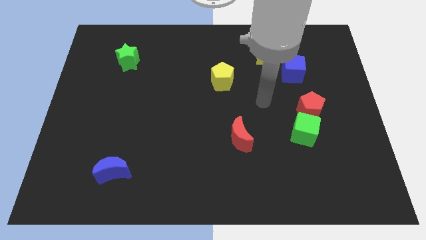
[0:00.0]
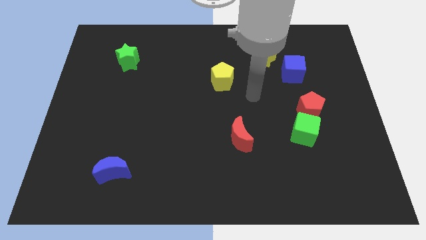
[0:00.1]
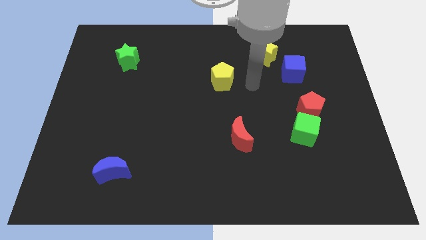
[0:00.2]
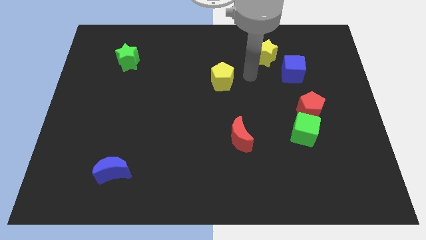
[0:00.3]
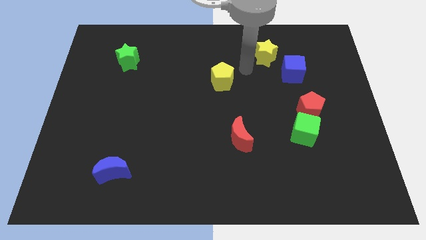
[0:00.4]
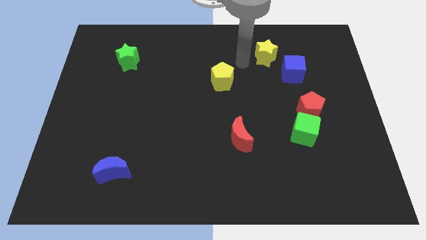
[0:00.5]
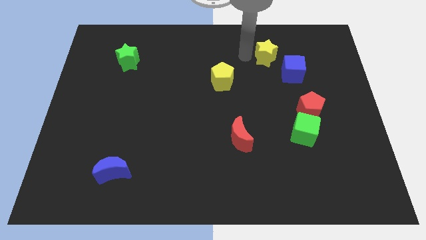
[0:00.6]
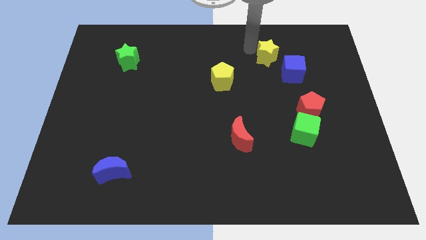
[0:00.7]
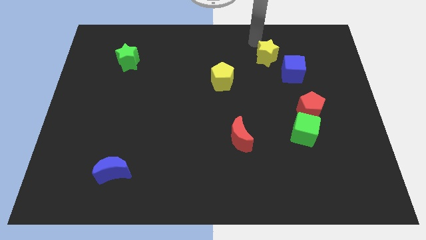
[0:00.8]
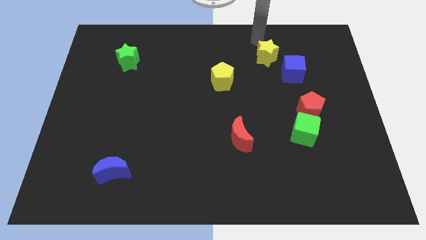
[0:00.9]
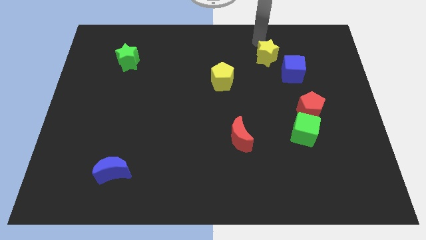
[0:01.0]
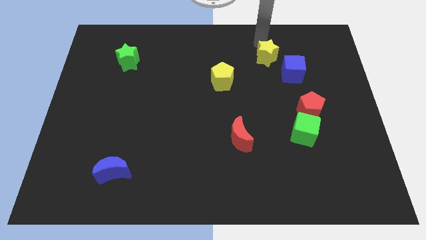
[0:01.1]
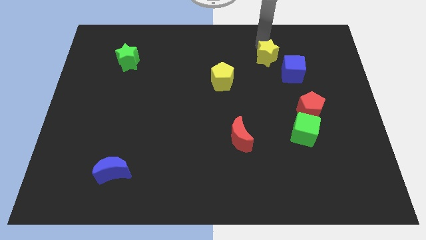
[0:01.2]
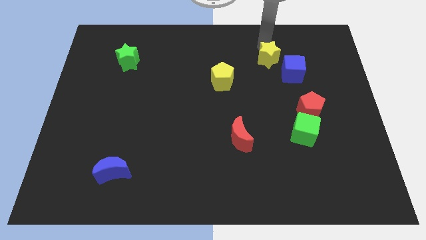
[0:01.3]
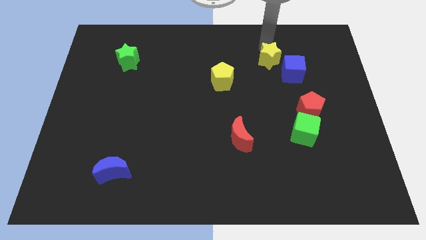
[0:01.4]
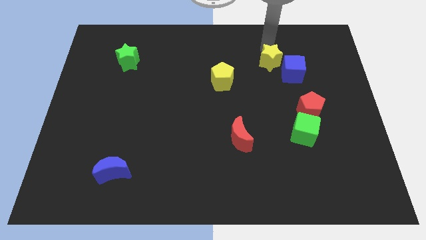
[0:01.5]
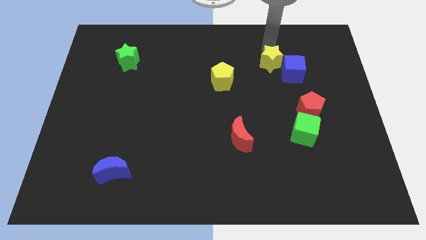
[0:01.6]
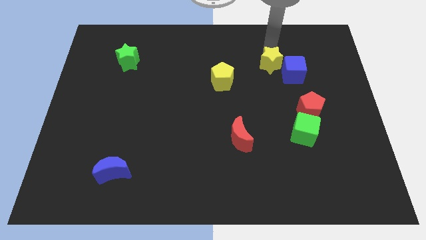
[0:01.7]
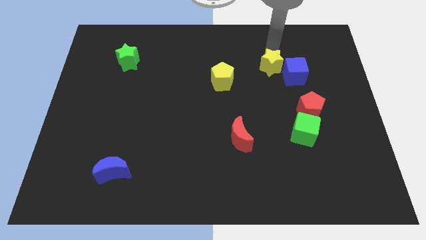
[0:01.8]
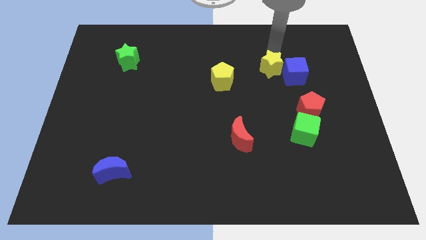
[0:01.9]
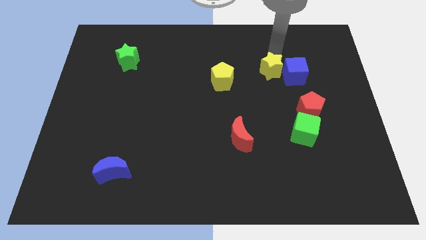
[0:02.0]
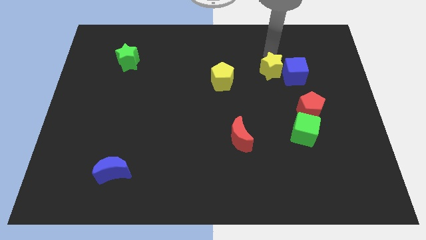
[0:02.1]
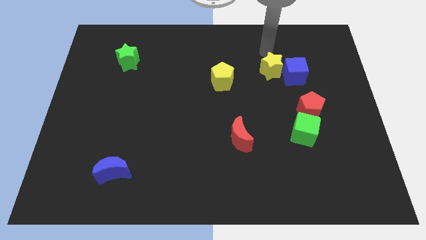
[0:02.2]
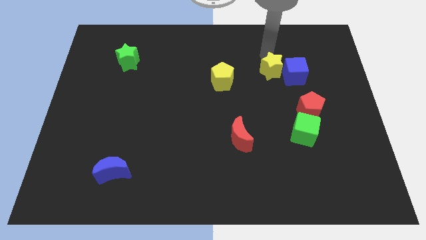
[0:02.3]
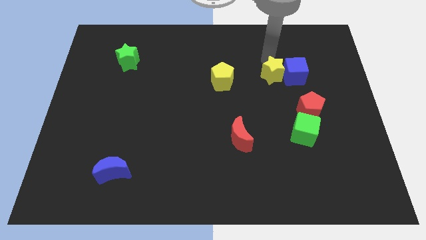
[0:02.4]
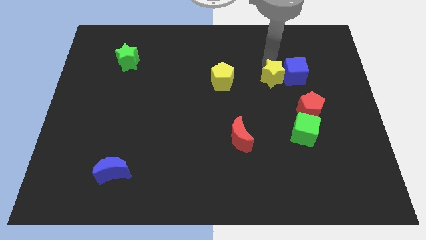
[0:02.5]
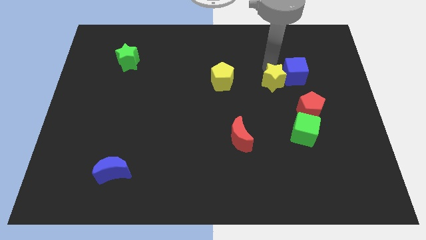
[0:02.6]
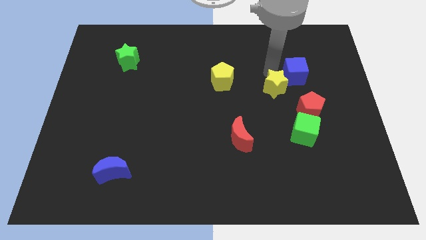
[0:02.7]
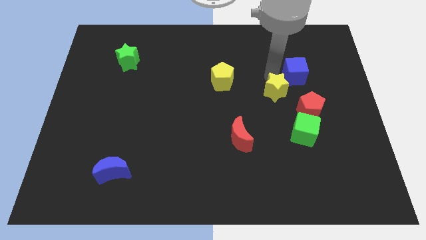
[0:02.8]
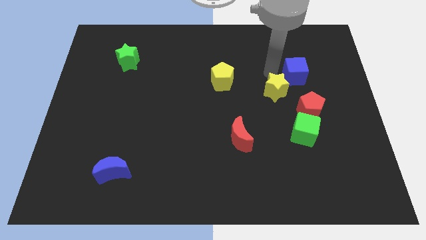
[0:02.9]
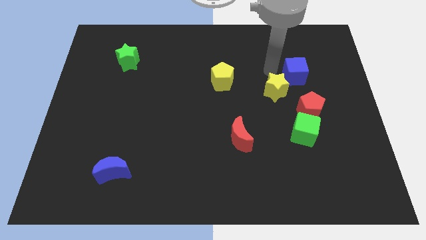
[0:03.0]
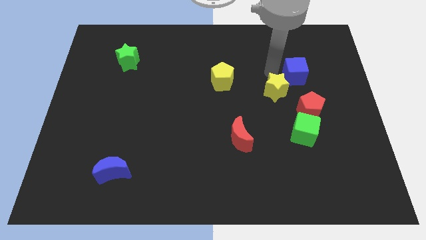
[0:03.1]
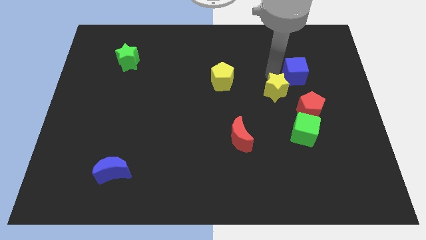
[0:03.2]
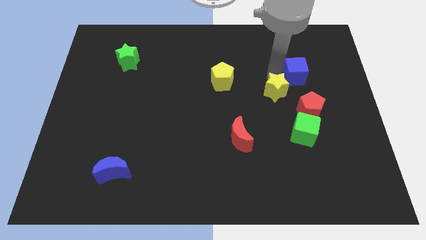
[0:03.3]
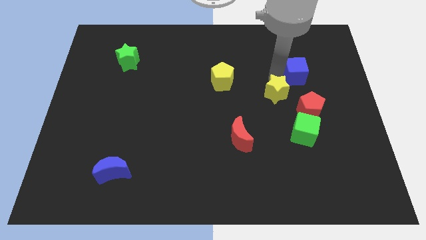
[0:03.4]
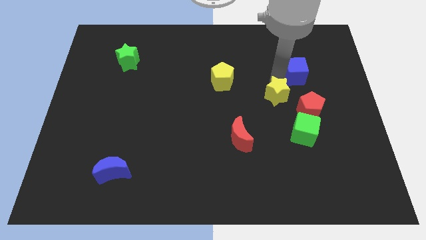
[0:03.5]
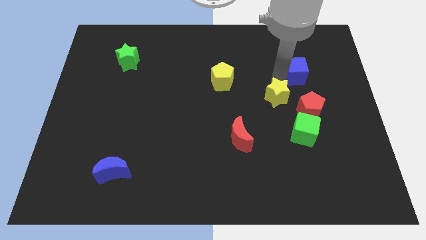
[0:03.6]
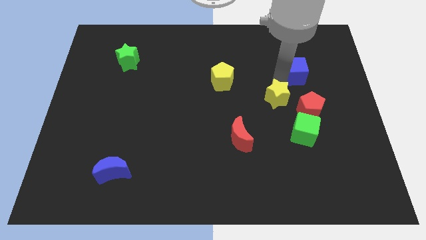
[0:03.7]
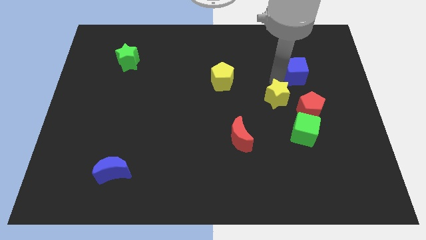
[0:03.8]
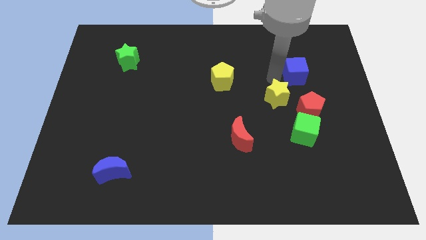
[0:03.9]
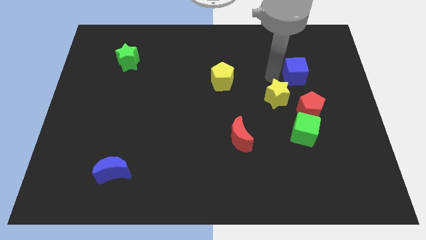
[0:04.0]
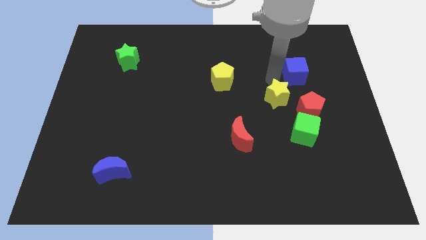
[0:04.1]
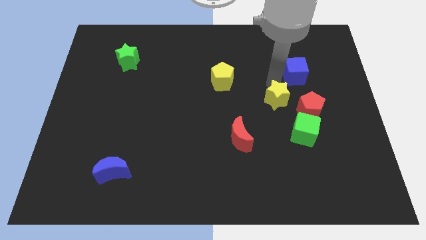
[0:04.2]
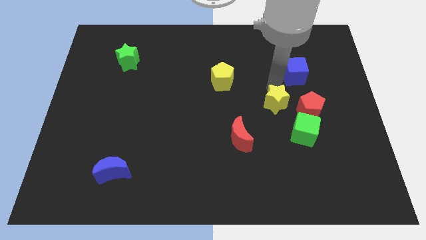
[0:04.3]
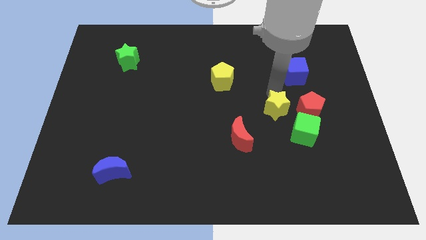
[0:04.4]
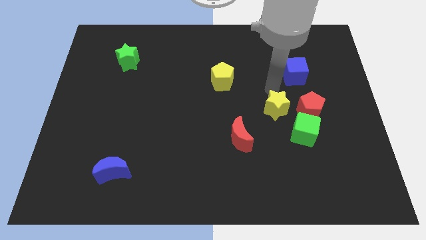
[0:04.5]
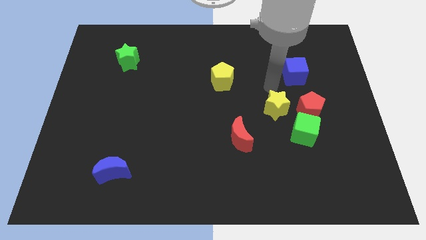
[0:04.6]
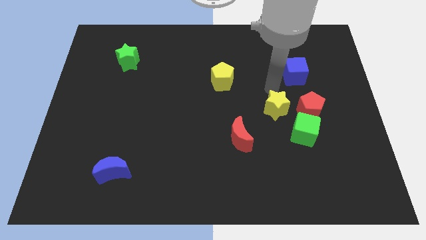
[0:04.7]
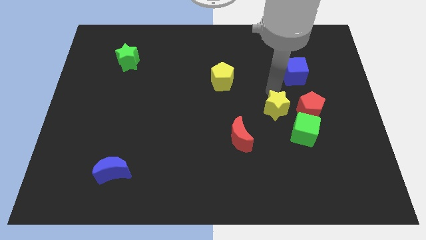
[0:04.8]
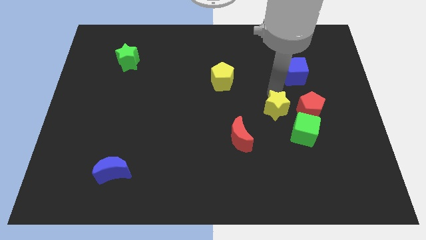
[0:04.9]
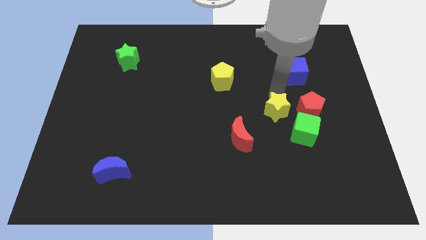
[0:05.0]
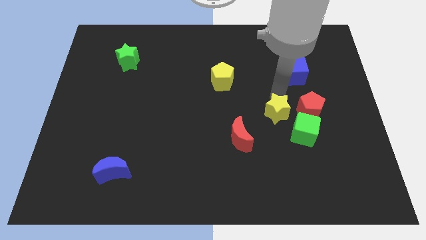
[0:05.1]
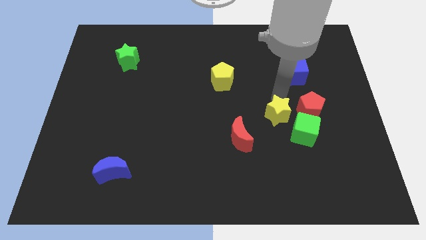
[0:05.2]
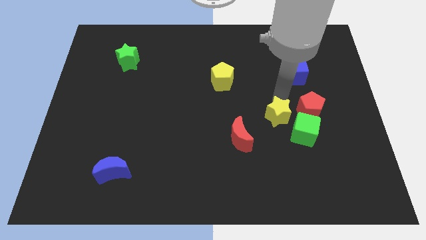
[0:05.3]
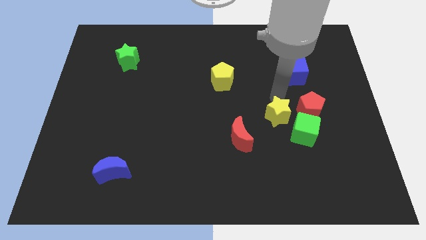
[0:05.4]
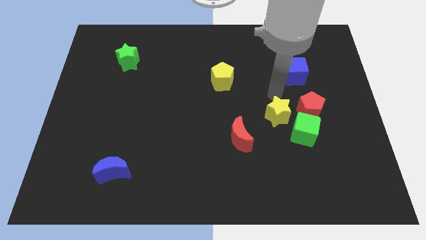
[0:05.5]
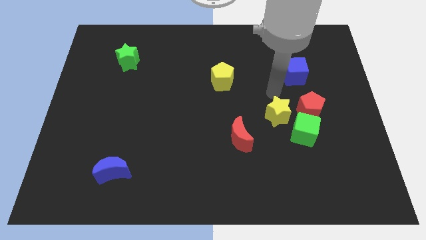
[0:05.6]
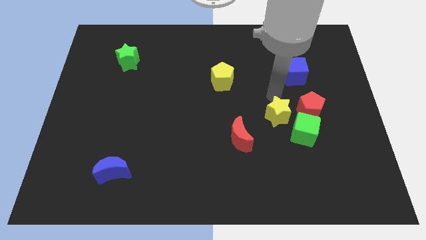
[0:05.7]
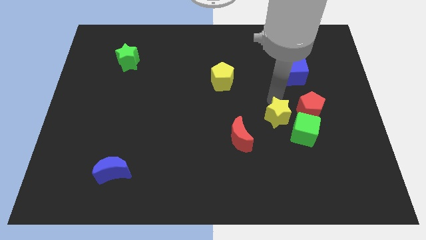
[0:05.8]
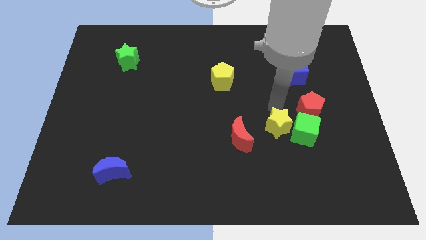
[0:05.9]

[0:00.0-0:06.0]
slide the yellow star down

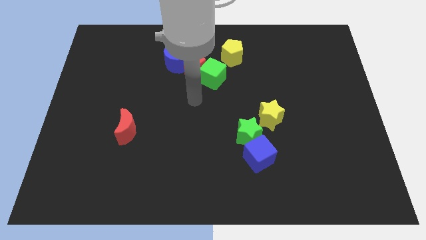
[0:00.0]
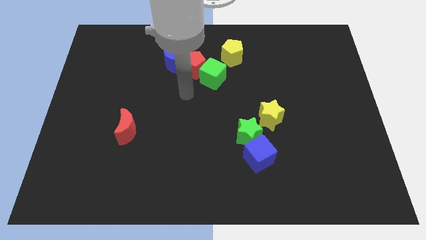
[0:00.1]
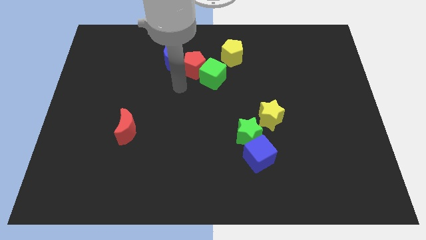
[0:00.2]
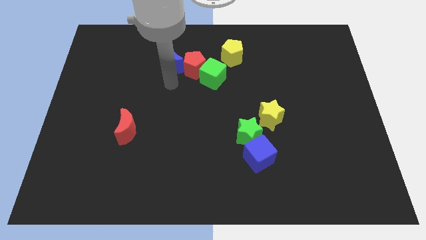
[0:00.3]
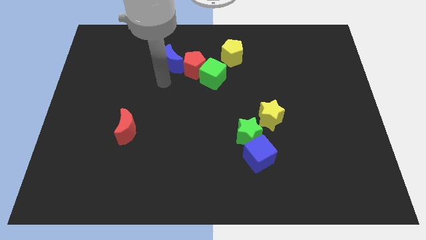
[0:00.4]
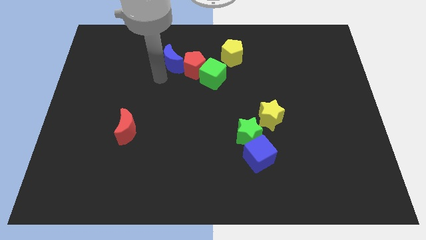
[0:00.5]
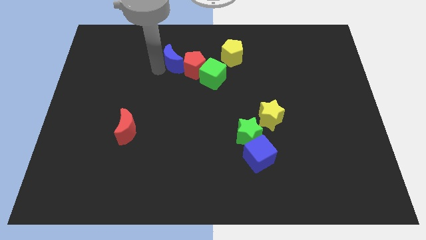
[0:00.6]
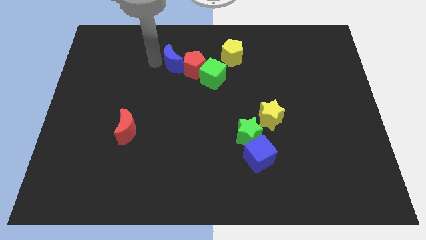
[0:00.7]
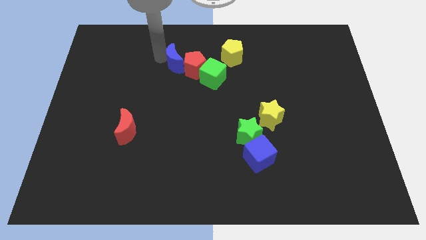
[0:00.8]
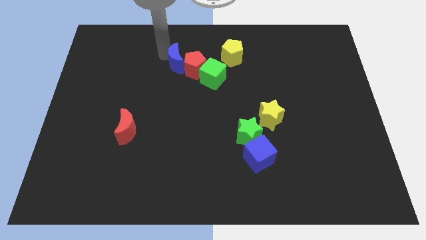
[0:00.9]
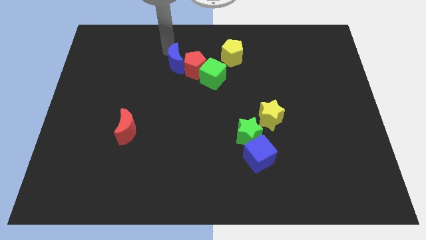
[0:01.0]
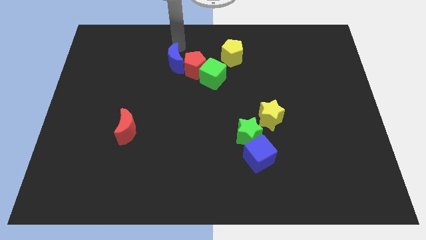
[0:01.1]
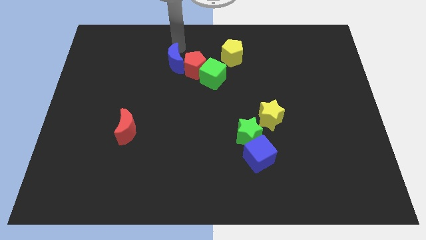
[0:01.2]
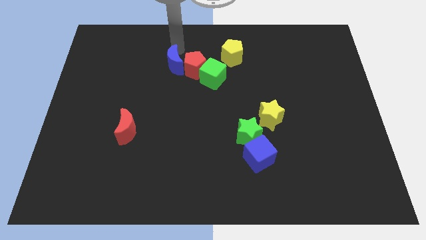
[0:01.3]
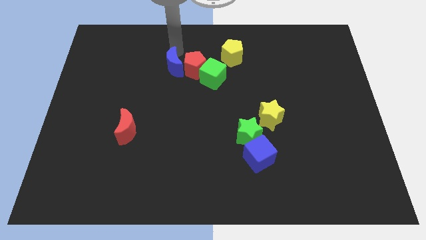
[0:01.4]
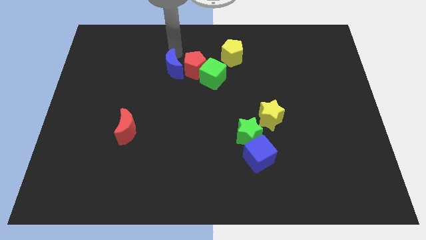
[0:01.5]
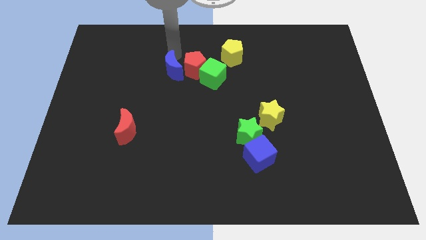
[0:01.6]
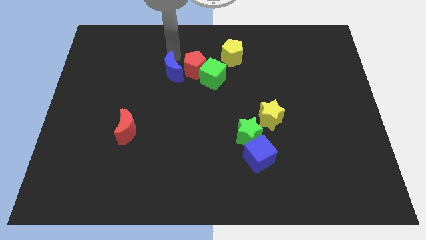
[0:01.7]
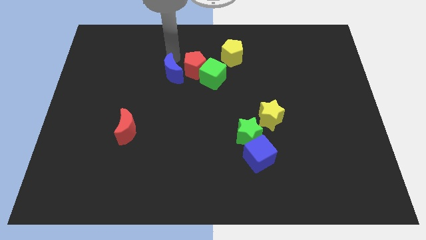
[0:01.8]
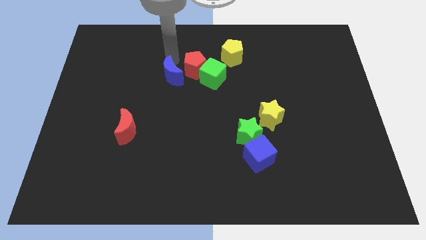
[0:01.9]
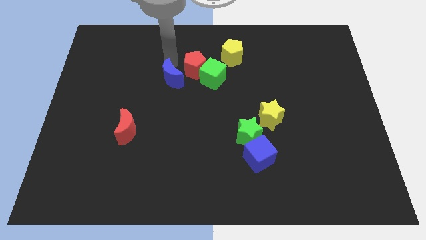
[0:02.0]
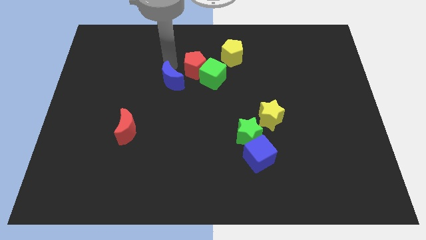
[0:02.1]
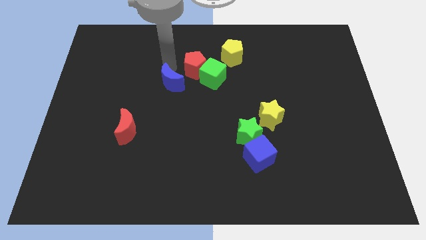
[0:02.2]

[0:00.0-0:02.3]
move the blue moon a little bit downwards
